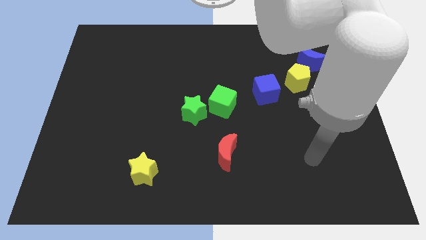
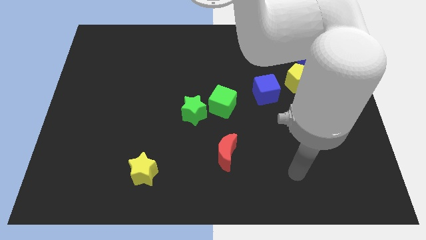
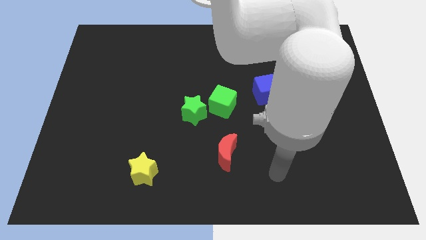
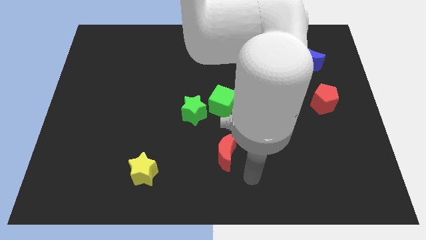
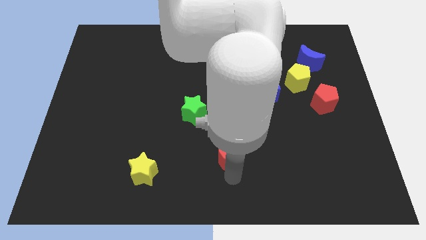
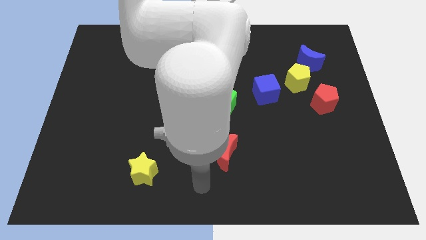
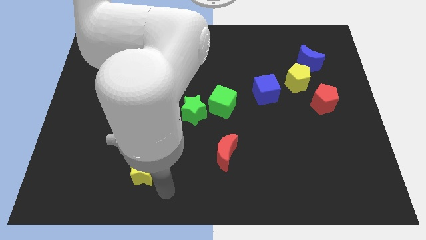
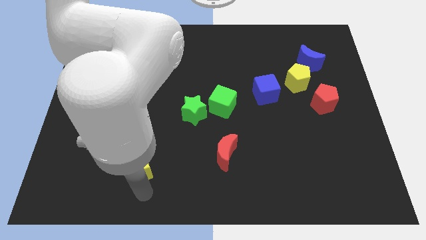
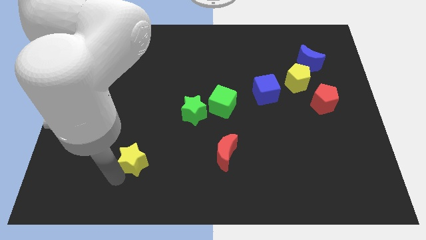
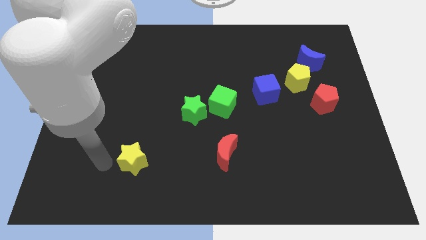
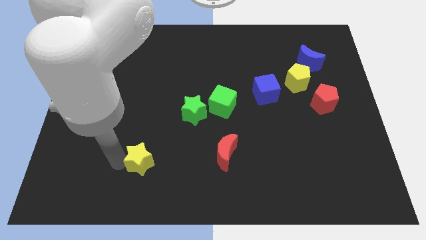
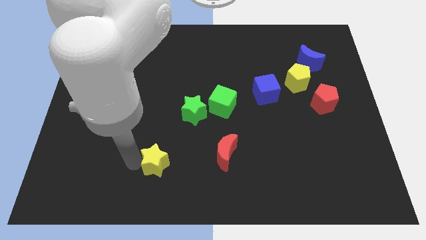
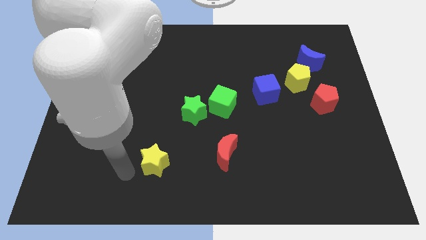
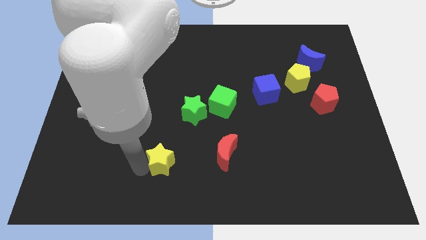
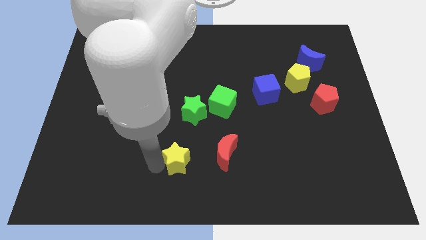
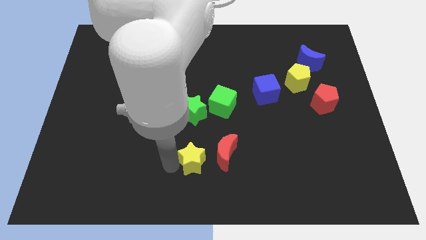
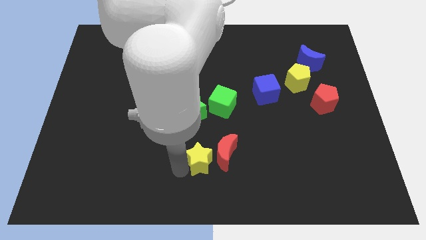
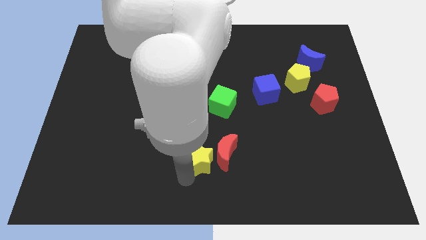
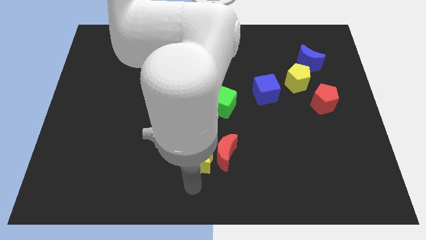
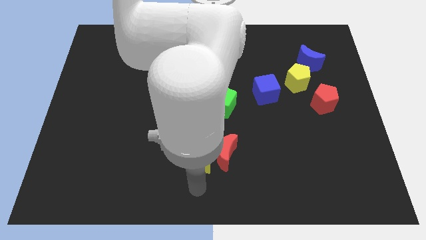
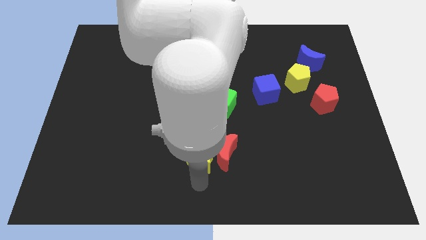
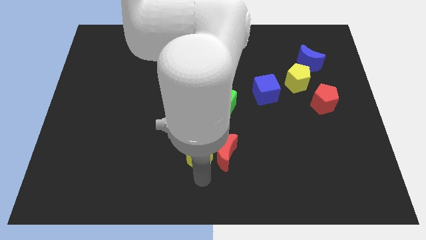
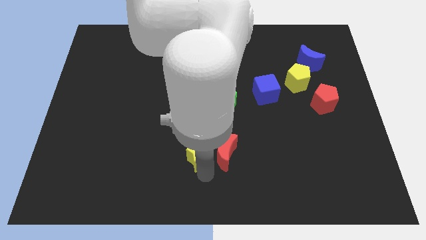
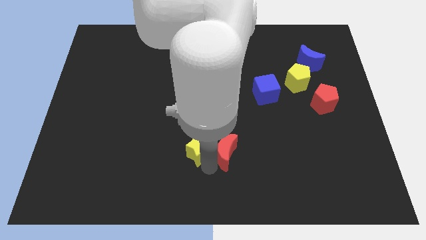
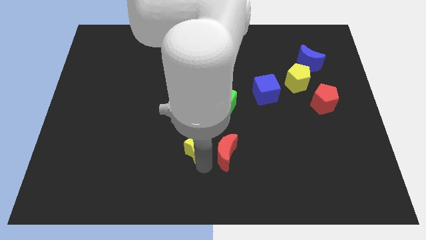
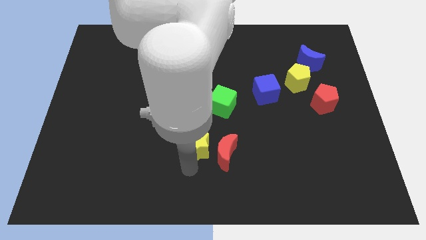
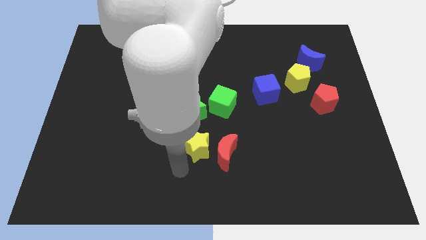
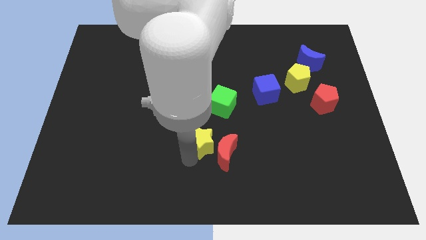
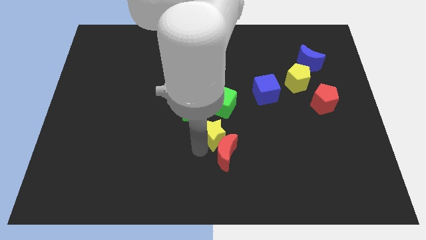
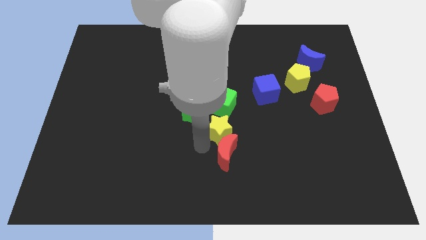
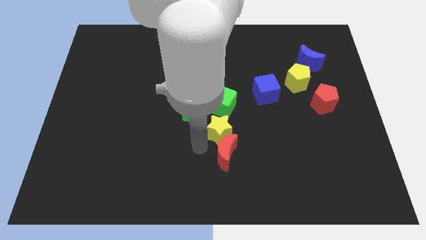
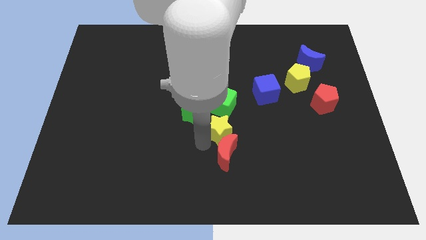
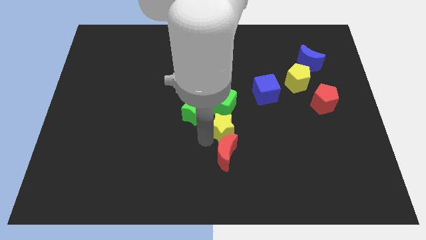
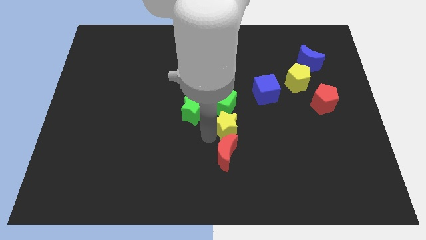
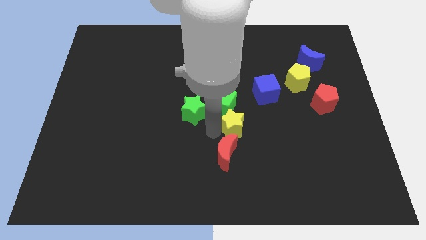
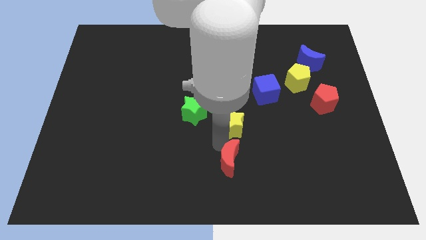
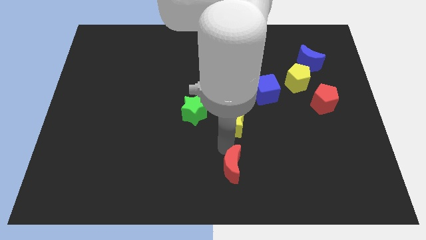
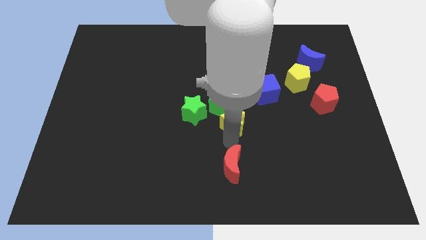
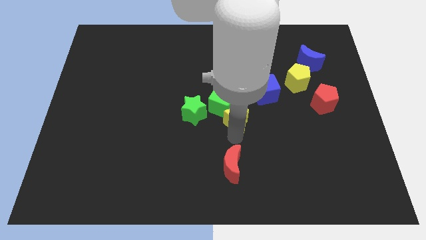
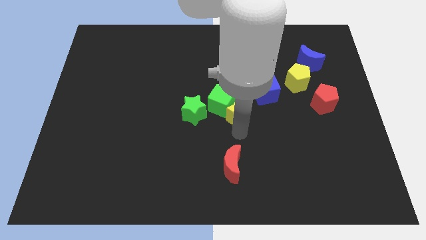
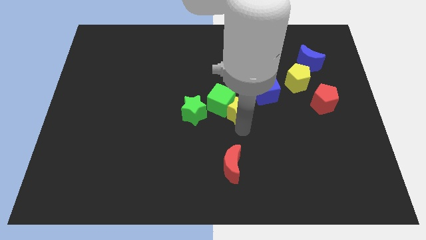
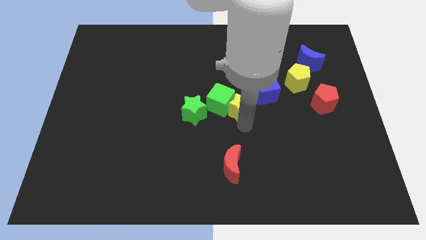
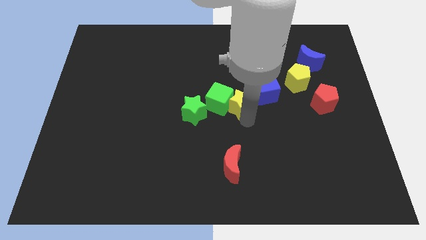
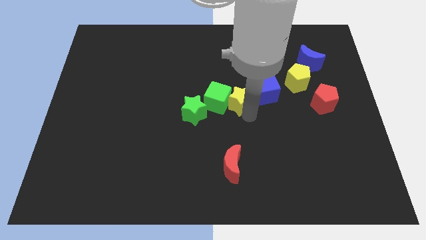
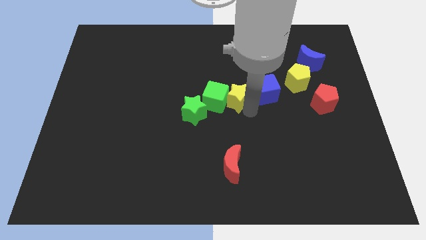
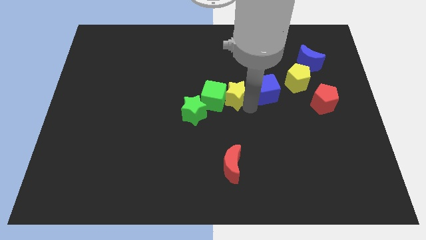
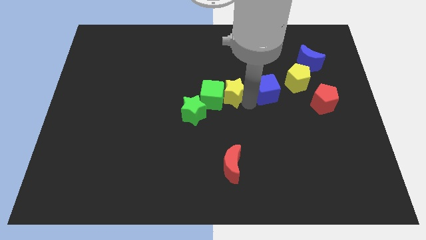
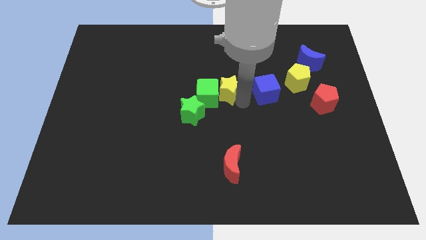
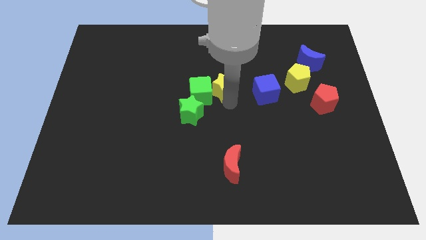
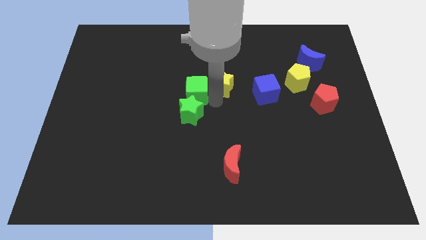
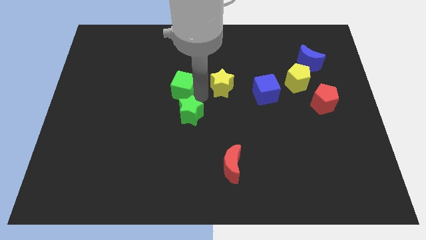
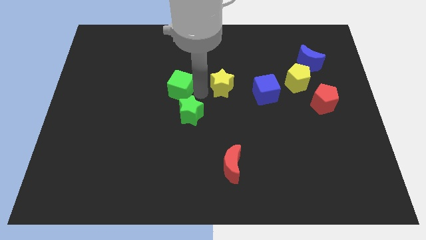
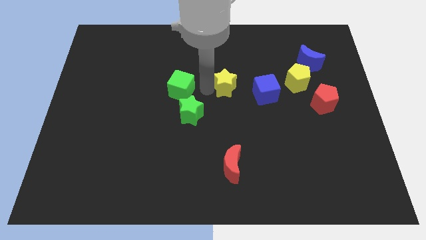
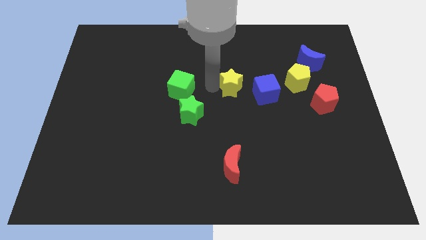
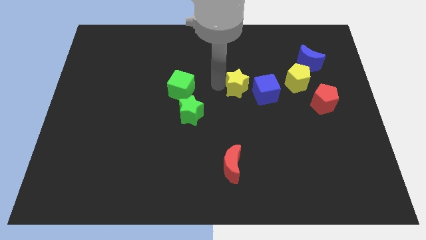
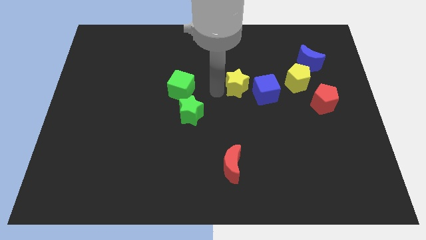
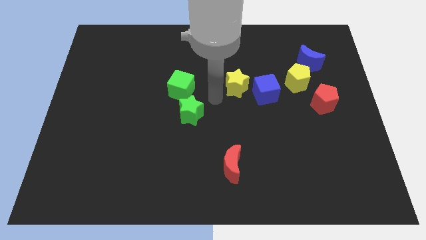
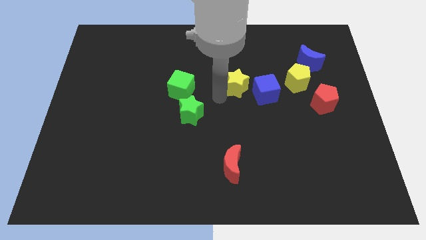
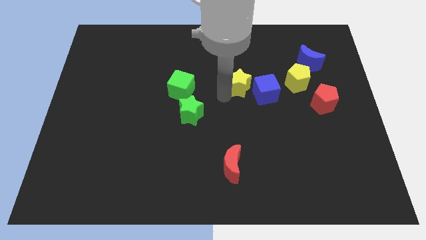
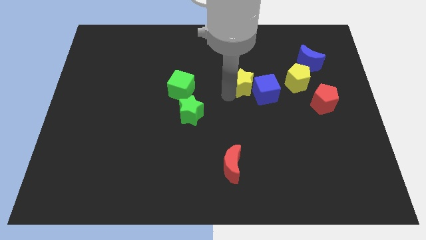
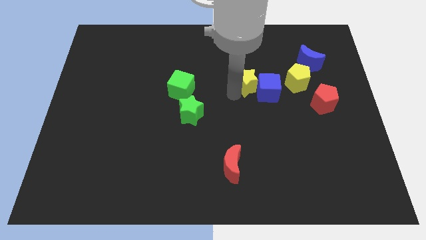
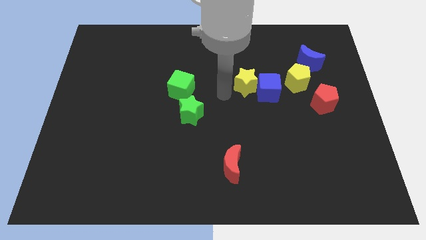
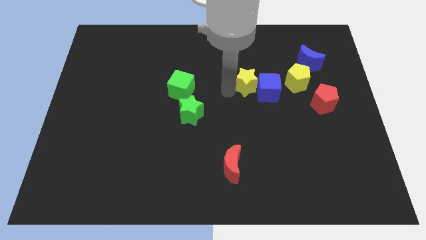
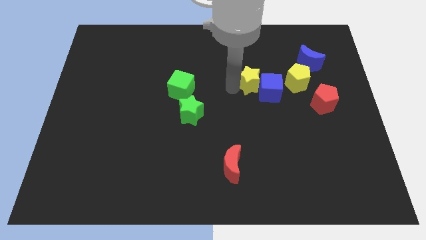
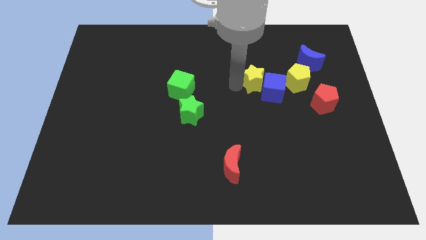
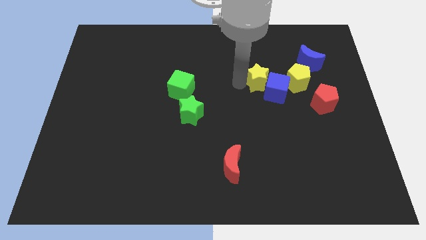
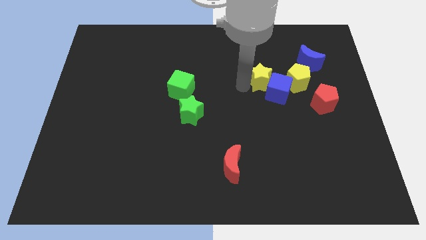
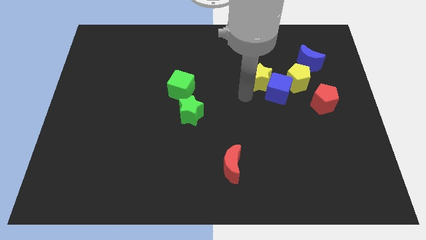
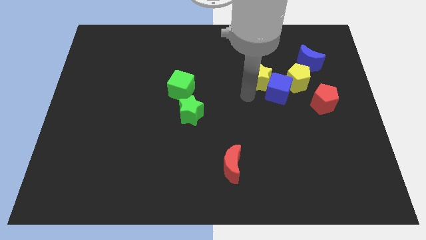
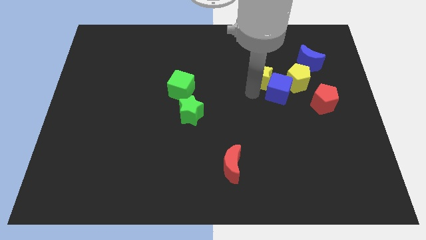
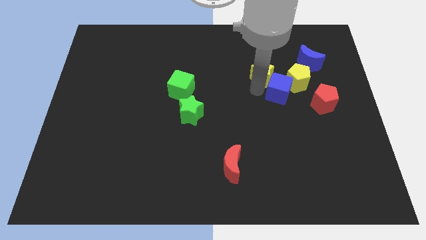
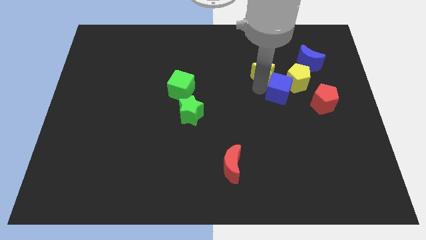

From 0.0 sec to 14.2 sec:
put the yellow star to the top left of the yellow pentagon

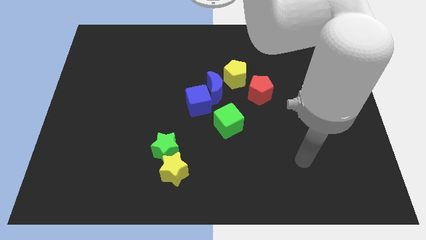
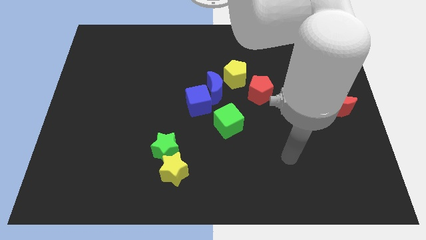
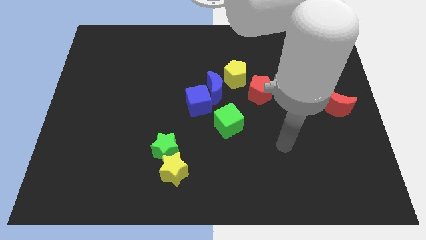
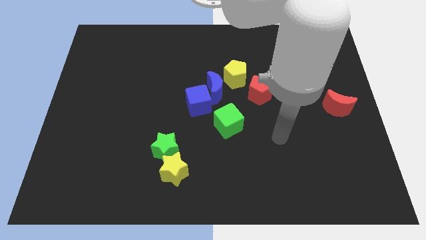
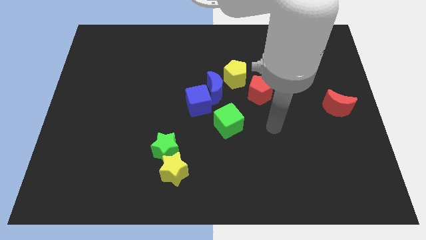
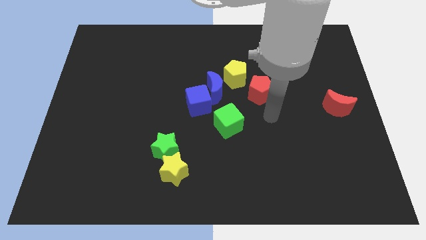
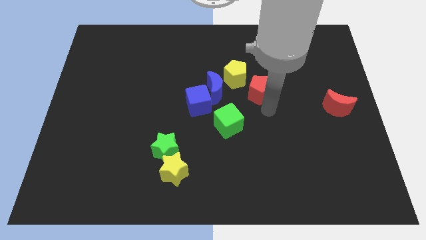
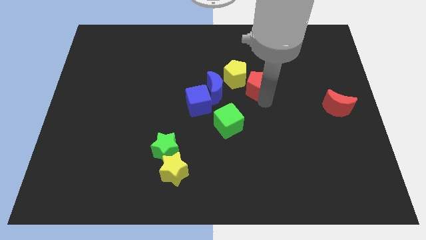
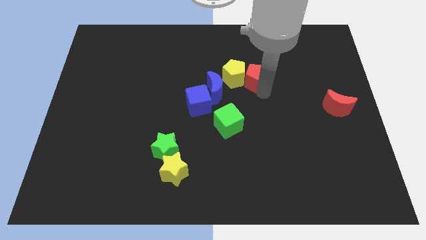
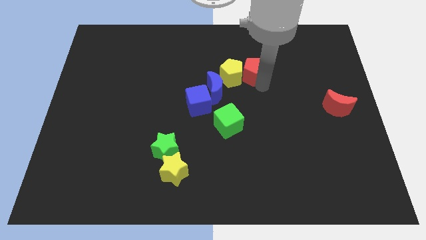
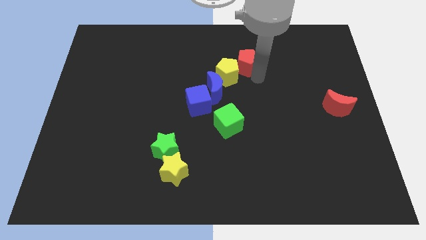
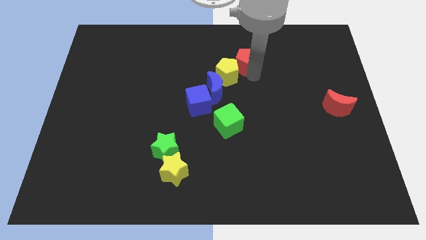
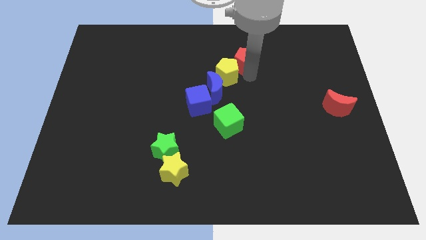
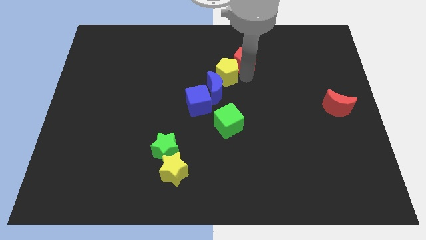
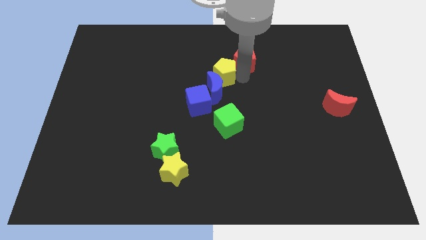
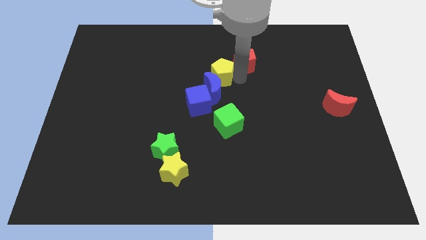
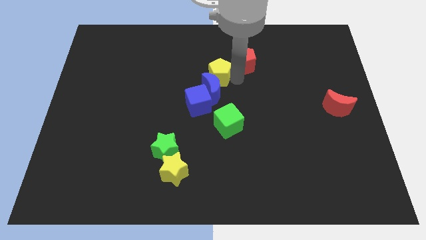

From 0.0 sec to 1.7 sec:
put the yellow pentagon diagonally up and to the left of the blue moon
